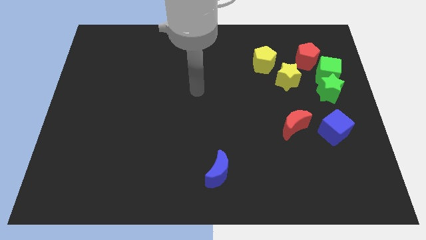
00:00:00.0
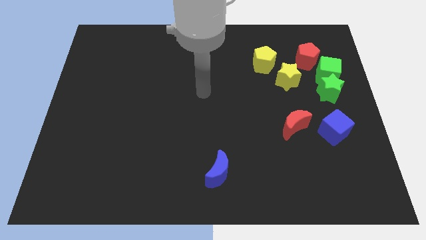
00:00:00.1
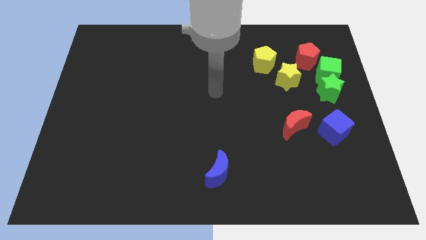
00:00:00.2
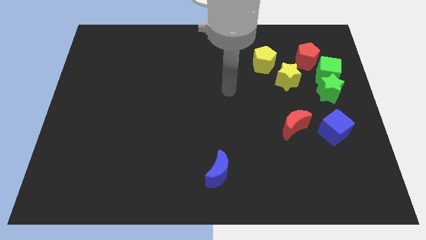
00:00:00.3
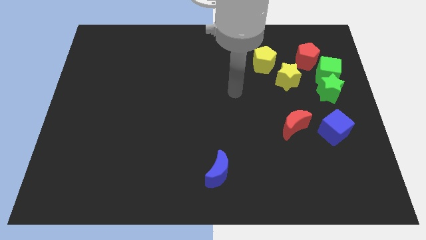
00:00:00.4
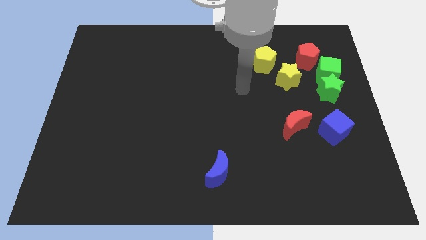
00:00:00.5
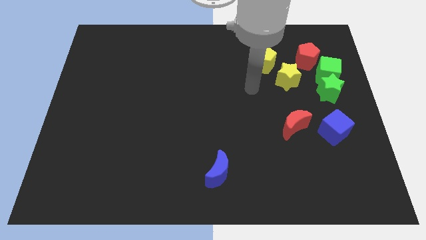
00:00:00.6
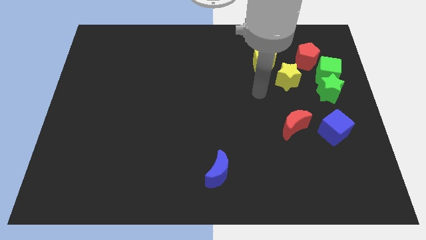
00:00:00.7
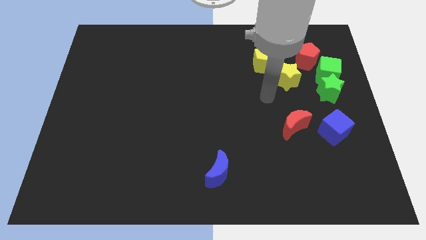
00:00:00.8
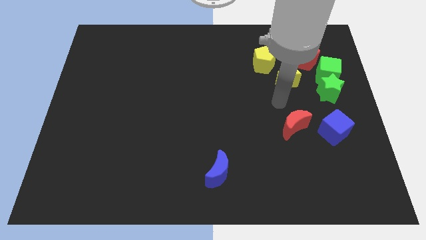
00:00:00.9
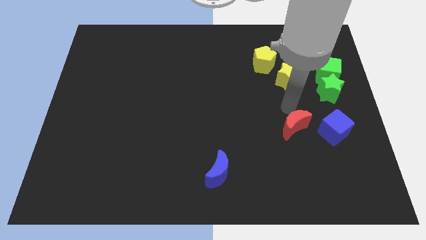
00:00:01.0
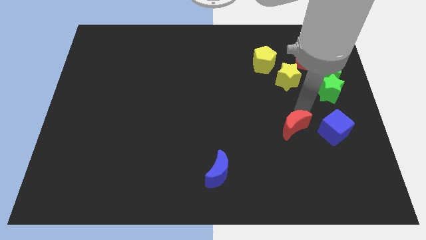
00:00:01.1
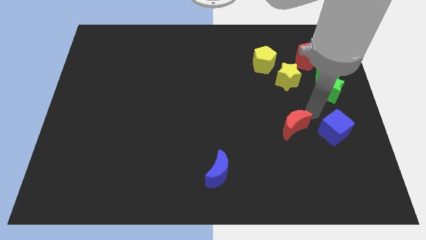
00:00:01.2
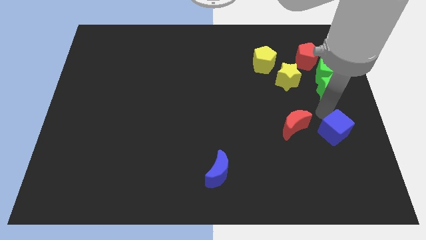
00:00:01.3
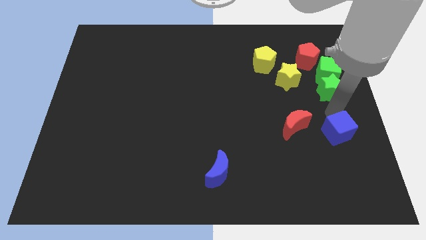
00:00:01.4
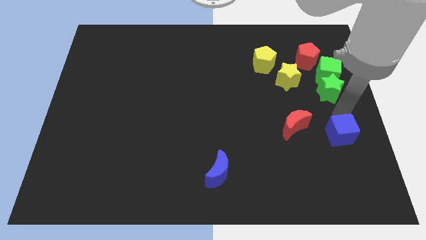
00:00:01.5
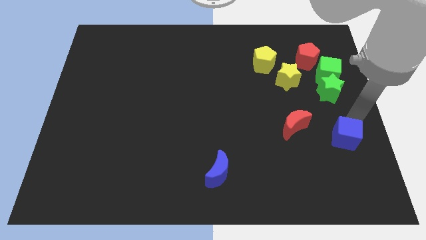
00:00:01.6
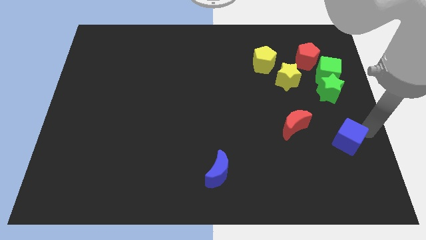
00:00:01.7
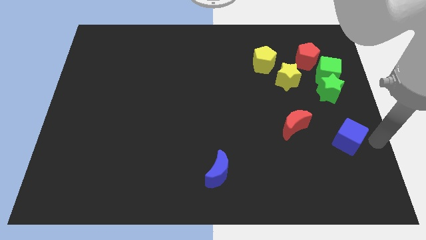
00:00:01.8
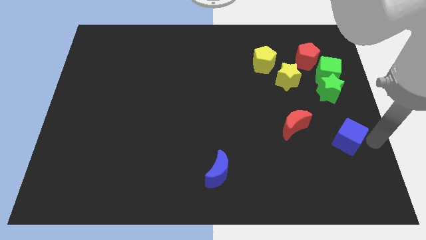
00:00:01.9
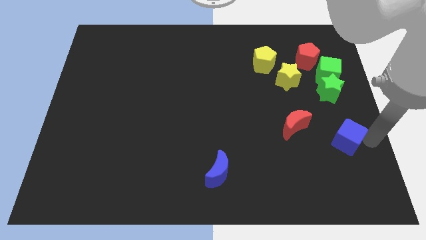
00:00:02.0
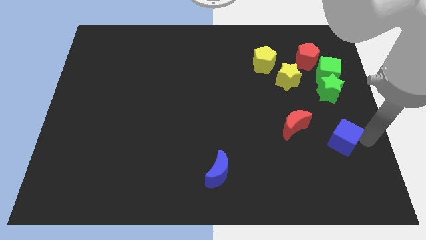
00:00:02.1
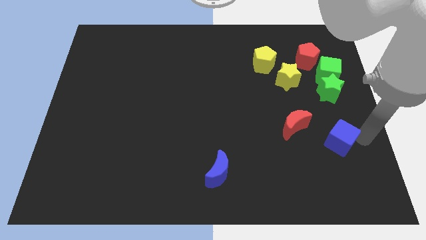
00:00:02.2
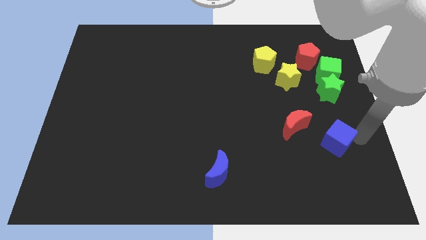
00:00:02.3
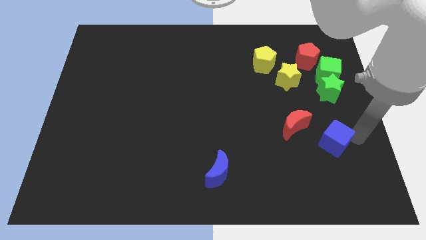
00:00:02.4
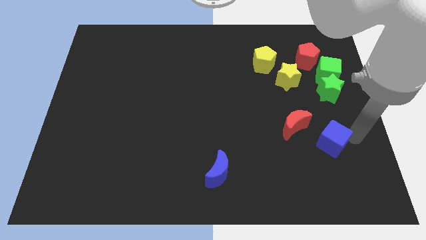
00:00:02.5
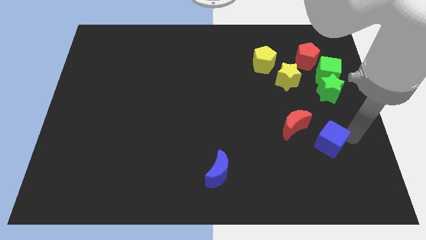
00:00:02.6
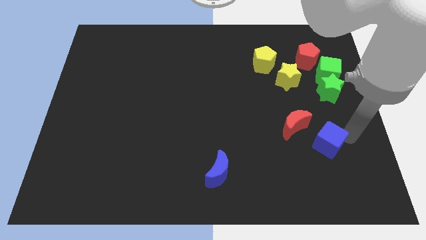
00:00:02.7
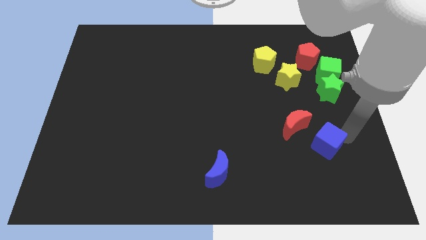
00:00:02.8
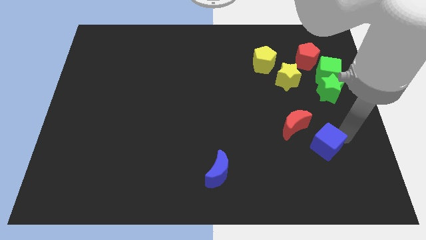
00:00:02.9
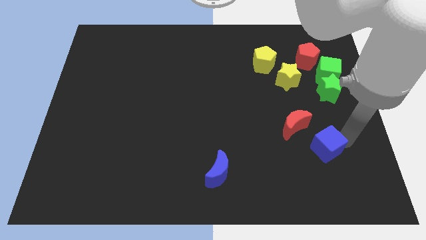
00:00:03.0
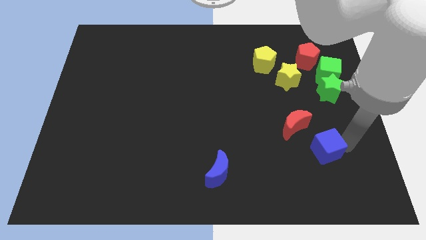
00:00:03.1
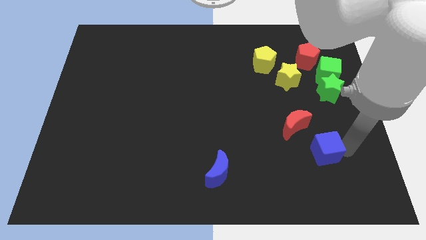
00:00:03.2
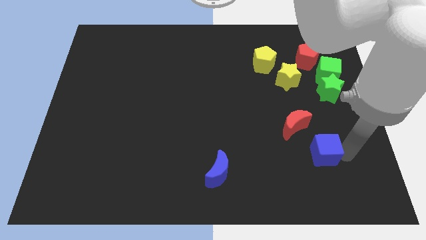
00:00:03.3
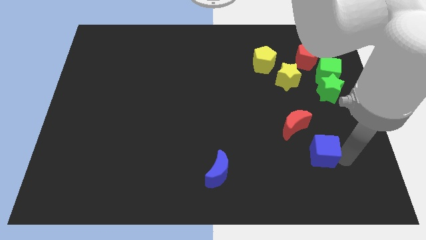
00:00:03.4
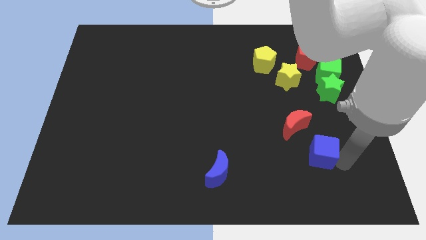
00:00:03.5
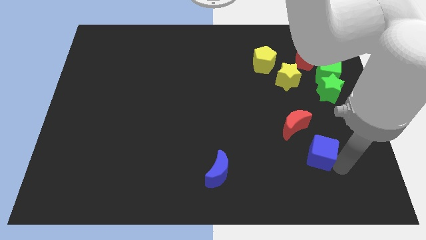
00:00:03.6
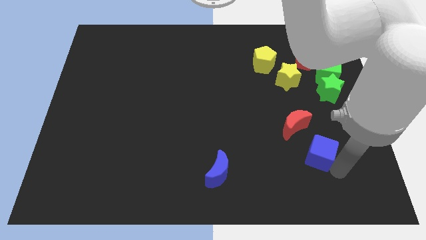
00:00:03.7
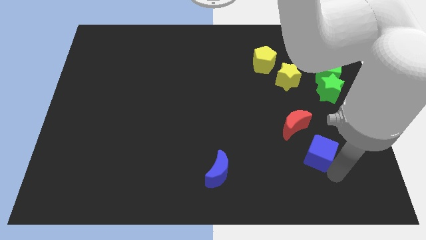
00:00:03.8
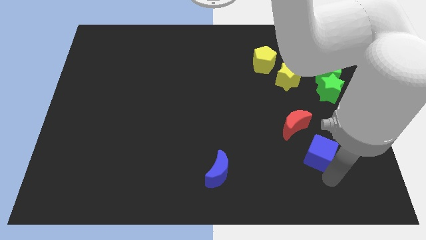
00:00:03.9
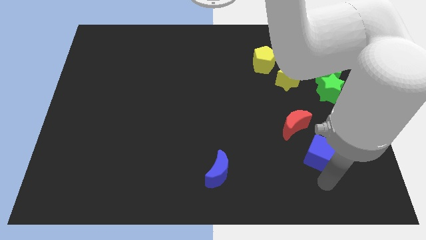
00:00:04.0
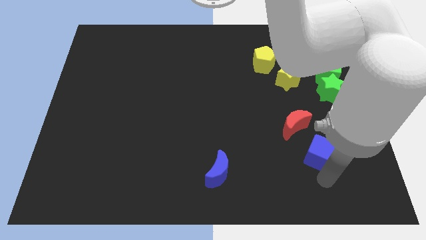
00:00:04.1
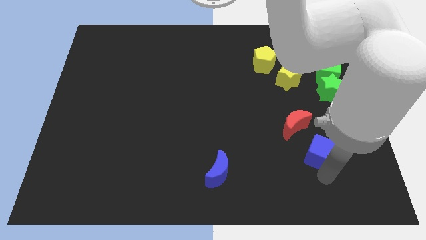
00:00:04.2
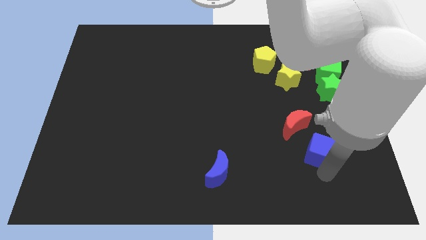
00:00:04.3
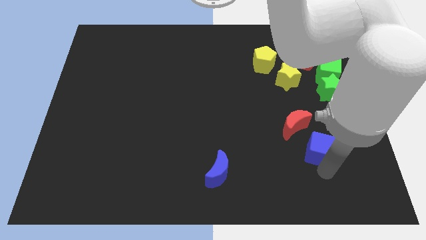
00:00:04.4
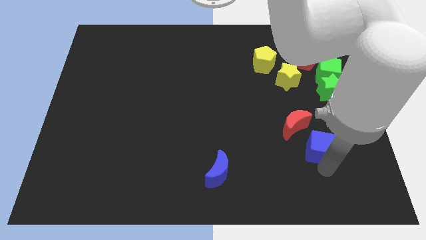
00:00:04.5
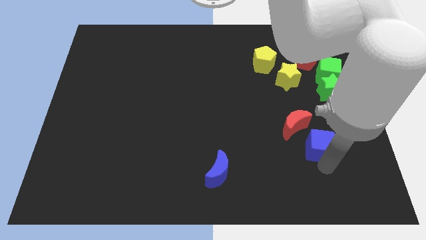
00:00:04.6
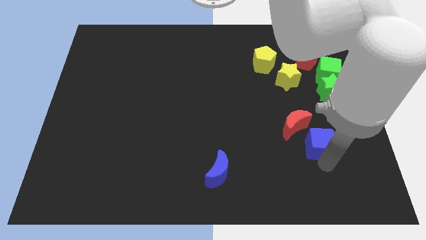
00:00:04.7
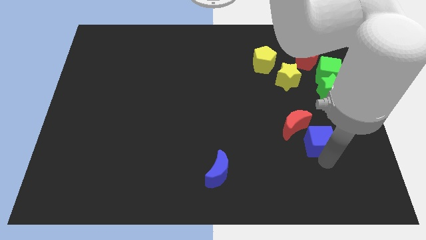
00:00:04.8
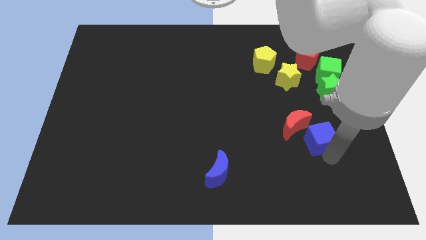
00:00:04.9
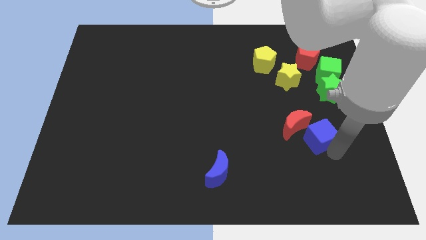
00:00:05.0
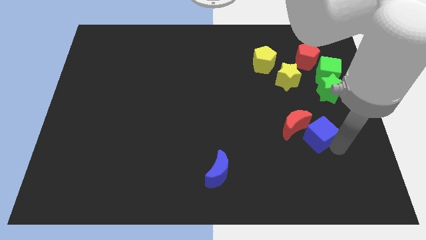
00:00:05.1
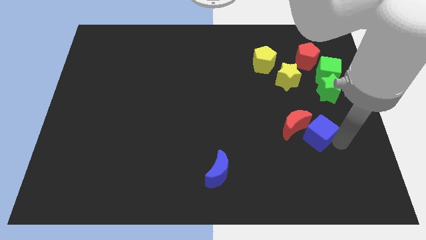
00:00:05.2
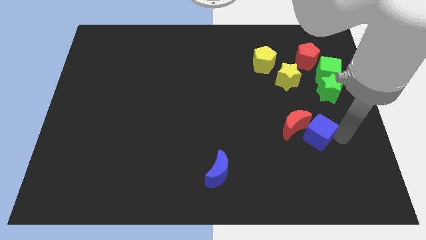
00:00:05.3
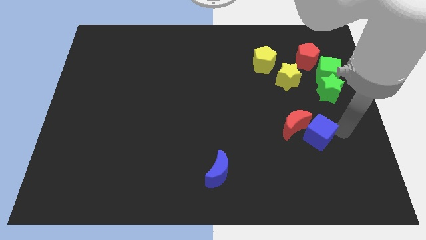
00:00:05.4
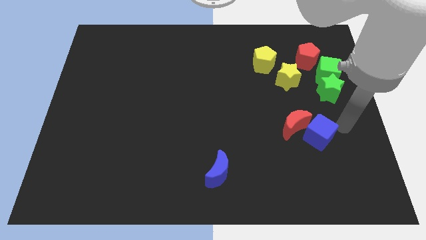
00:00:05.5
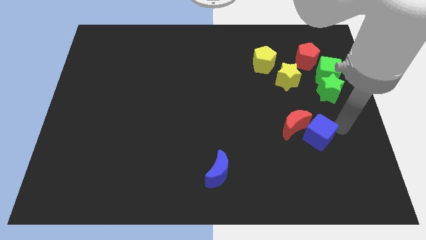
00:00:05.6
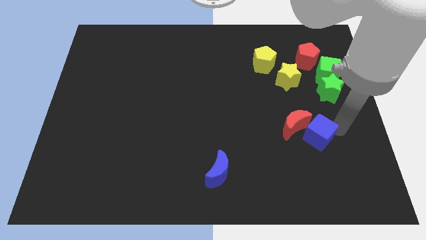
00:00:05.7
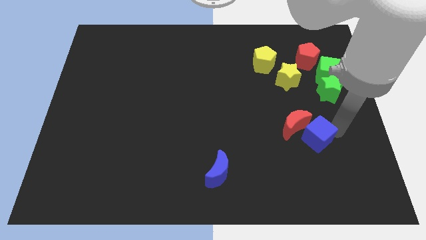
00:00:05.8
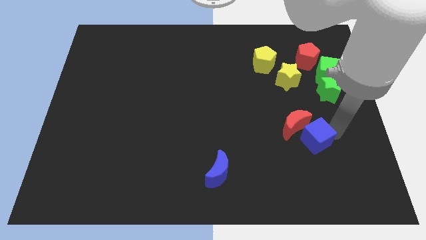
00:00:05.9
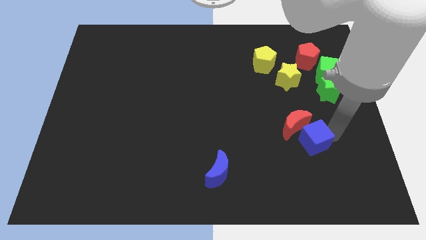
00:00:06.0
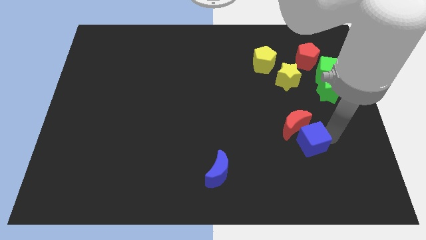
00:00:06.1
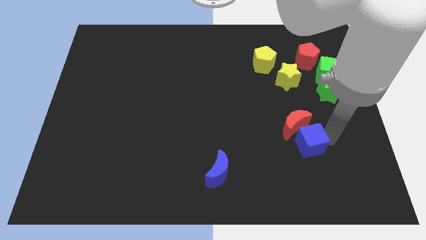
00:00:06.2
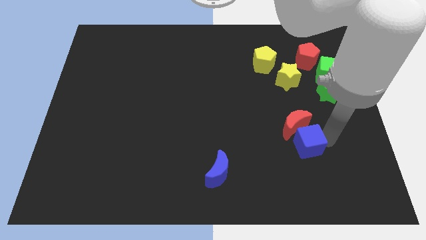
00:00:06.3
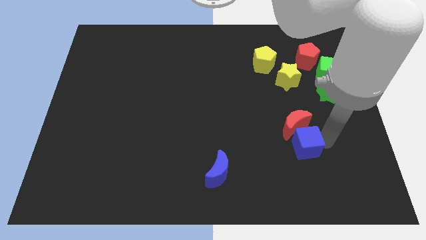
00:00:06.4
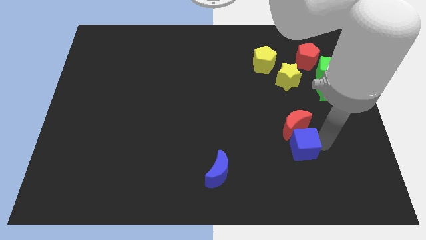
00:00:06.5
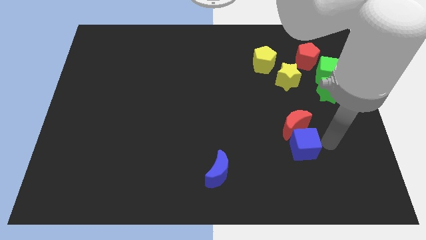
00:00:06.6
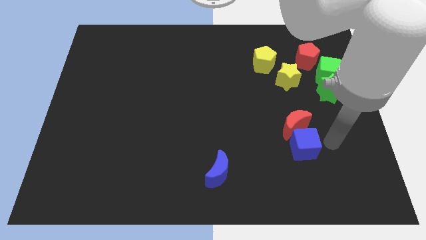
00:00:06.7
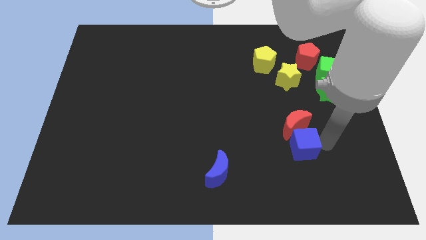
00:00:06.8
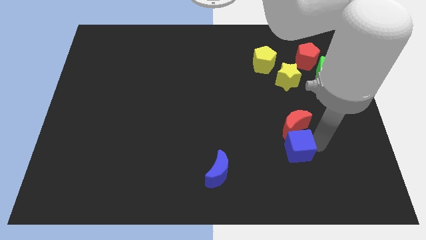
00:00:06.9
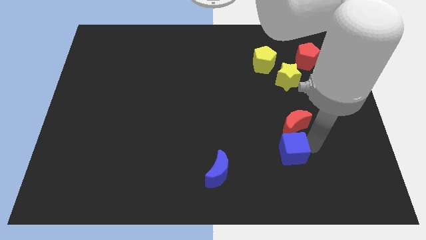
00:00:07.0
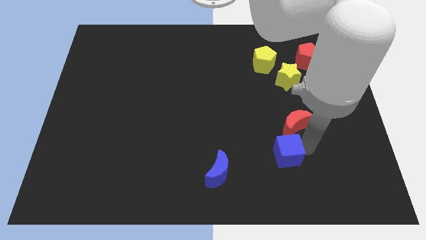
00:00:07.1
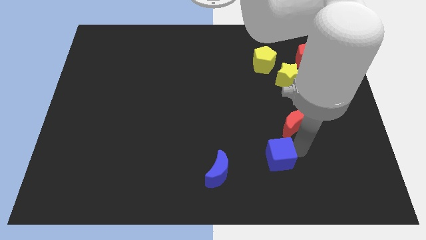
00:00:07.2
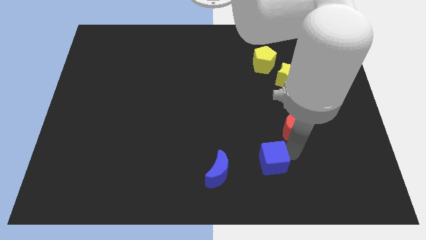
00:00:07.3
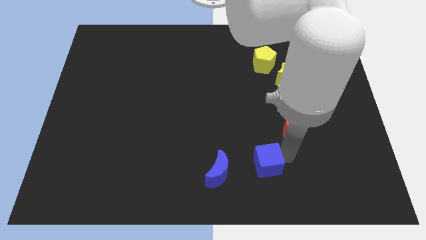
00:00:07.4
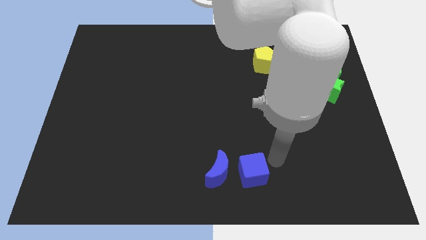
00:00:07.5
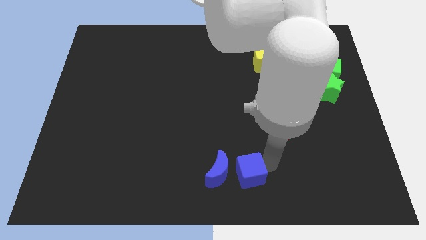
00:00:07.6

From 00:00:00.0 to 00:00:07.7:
push the blue cube to the blue moon
